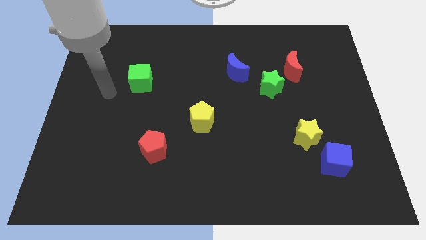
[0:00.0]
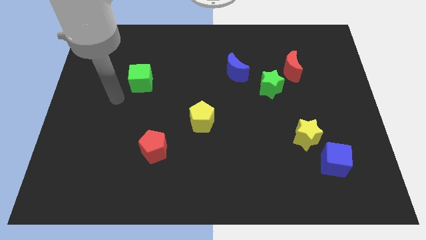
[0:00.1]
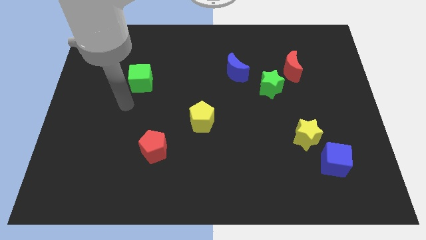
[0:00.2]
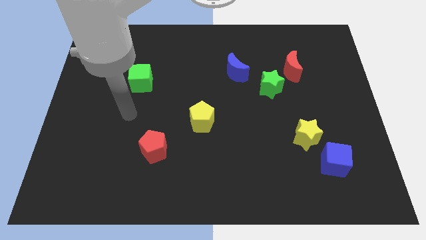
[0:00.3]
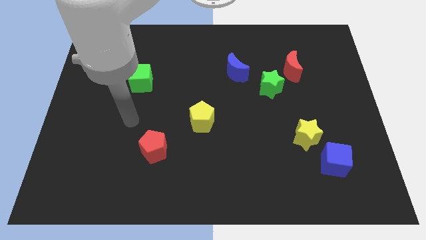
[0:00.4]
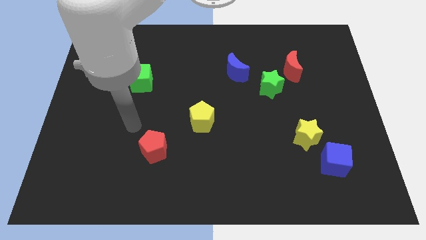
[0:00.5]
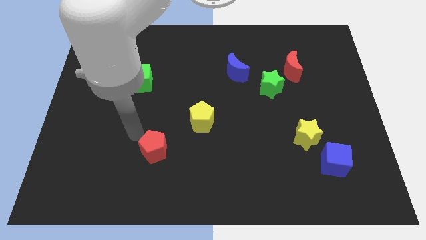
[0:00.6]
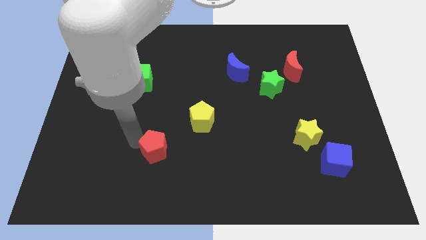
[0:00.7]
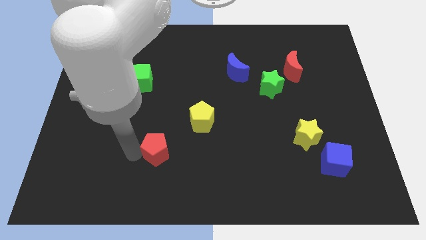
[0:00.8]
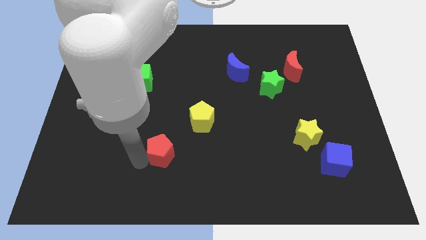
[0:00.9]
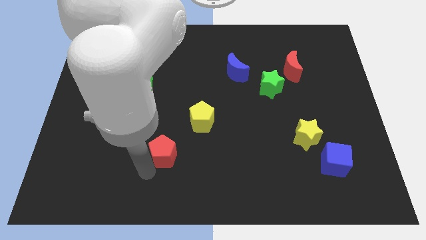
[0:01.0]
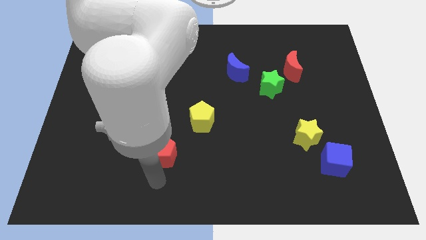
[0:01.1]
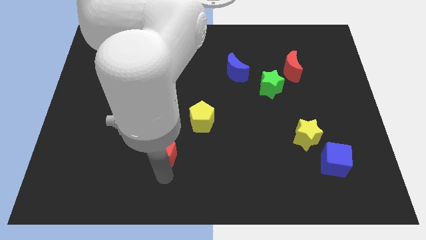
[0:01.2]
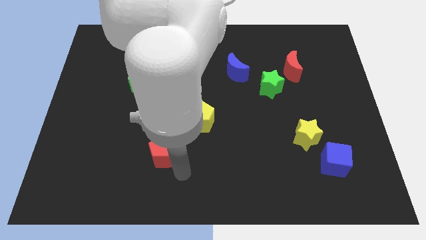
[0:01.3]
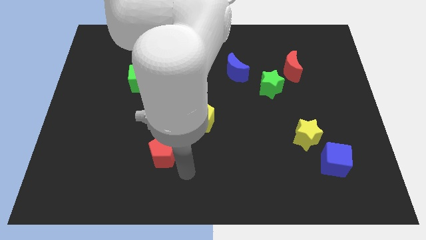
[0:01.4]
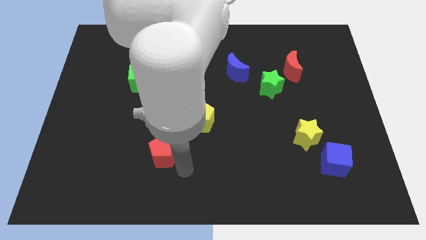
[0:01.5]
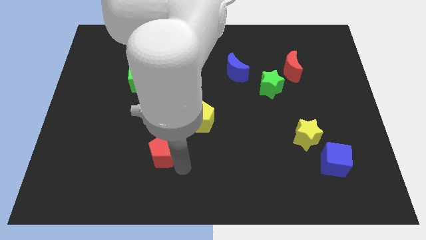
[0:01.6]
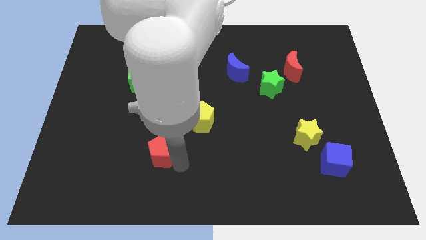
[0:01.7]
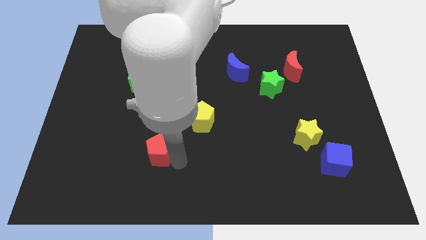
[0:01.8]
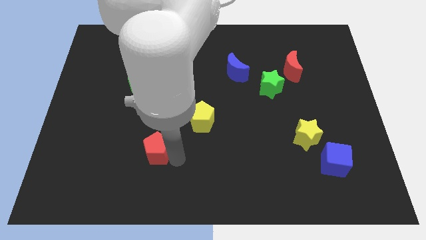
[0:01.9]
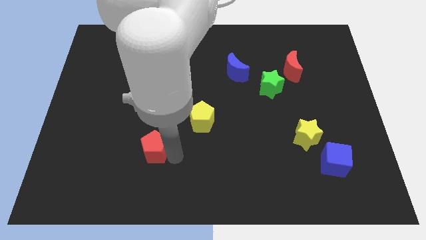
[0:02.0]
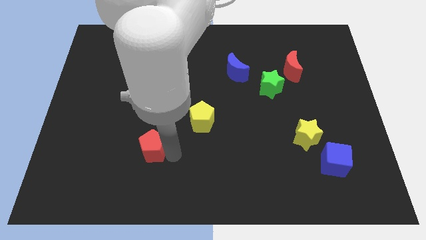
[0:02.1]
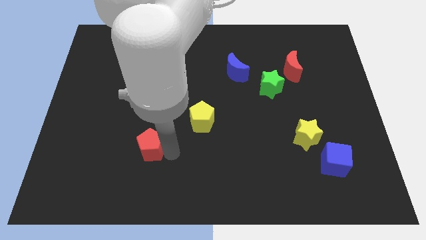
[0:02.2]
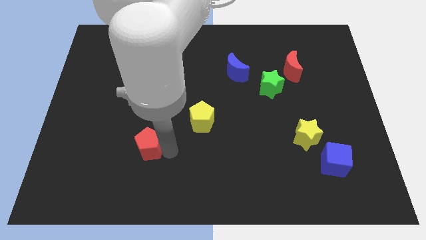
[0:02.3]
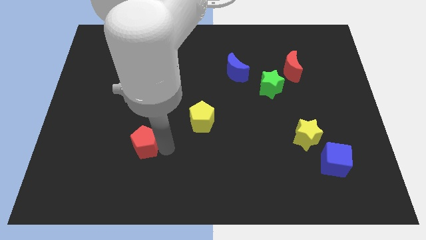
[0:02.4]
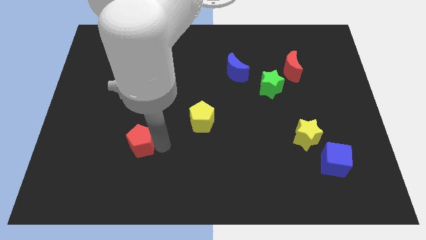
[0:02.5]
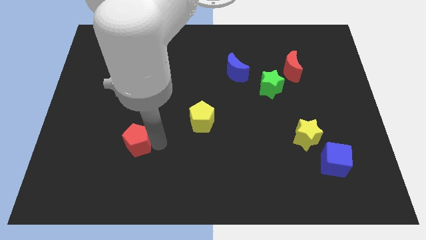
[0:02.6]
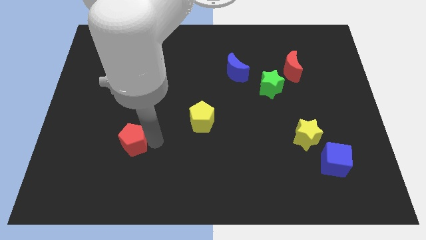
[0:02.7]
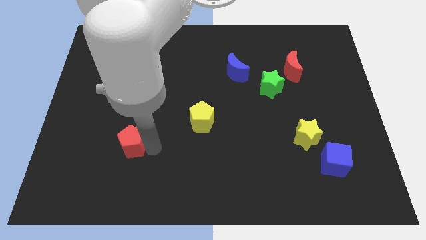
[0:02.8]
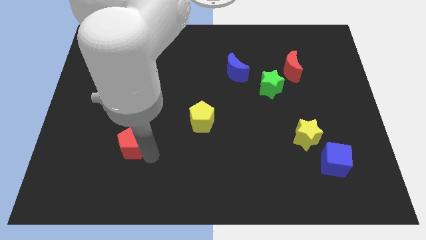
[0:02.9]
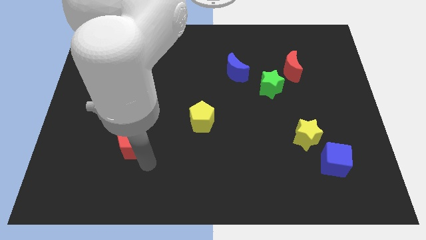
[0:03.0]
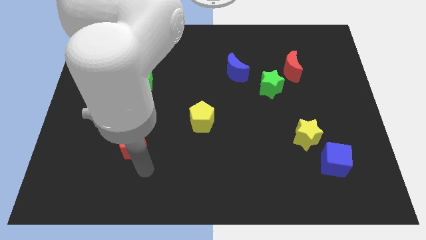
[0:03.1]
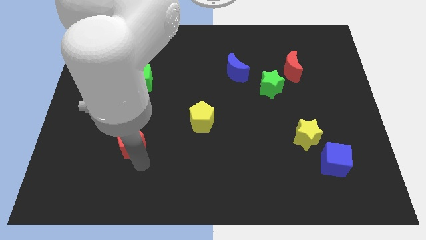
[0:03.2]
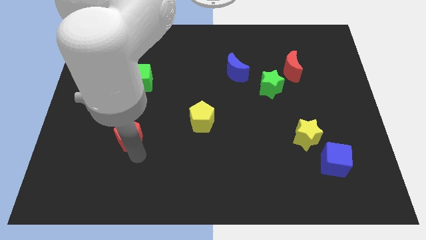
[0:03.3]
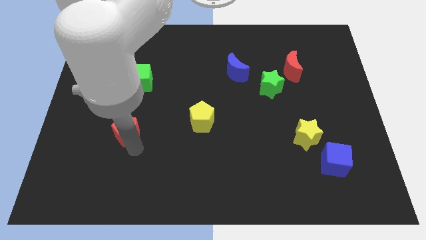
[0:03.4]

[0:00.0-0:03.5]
slightly slide the red pentagon upwards and then left

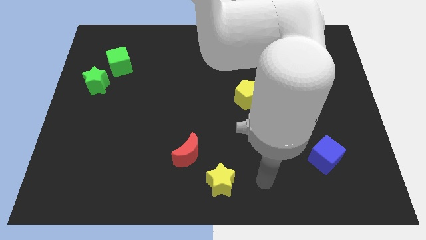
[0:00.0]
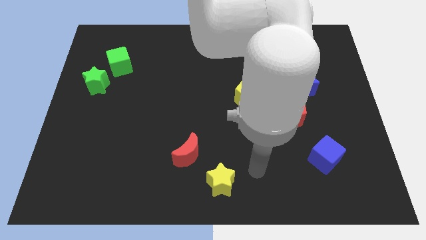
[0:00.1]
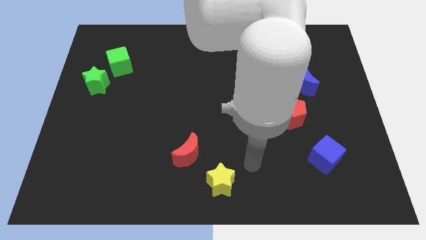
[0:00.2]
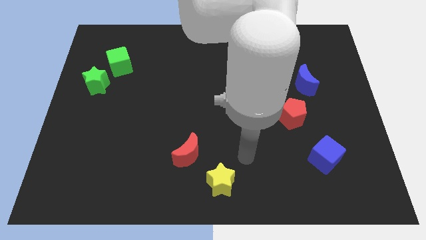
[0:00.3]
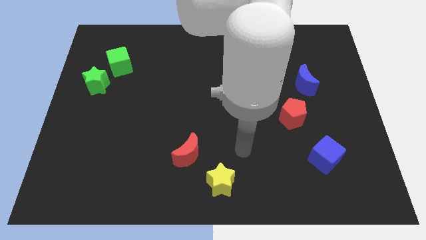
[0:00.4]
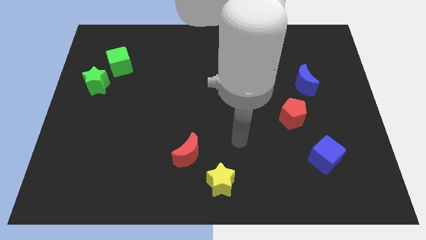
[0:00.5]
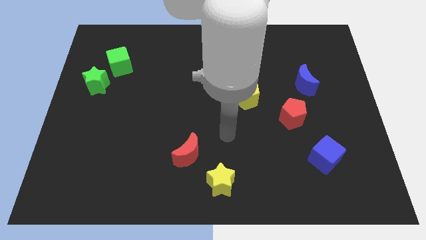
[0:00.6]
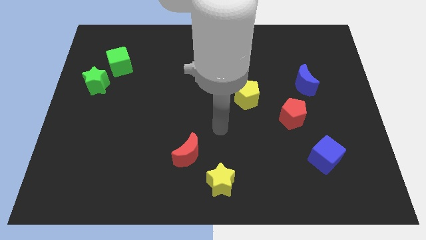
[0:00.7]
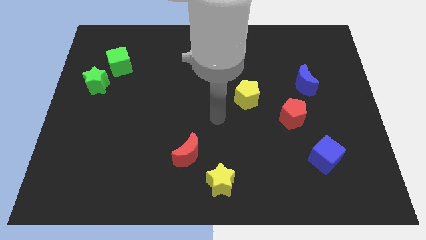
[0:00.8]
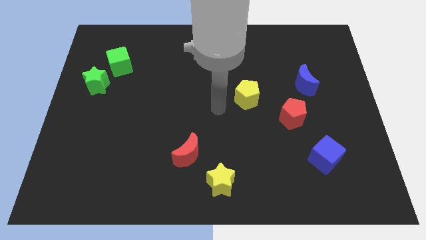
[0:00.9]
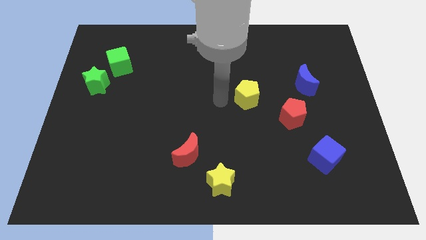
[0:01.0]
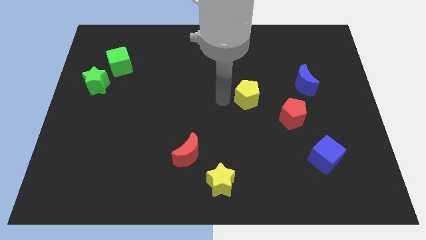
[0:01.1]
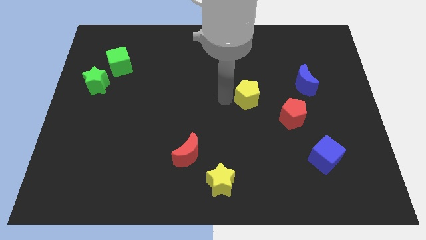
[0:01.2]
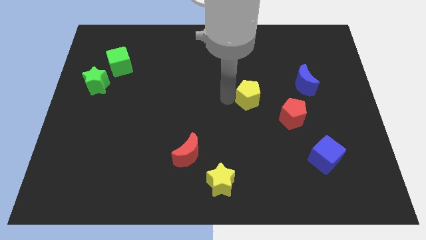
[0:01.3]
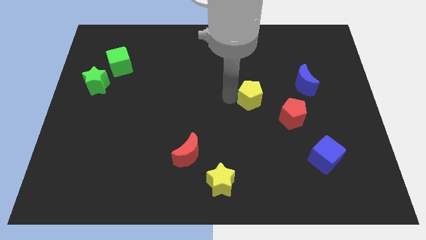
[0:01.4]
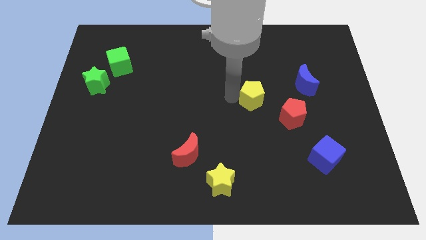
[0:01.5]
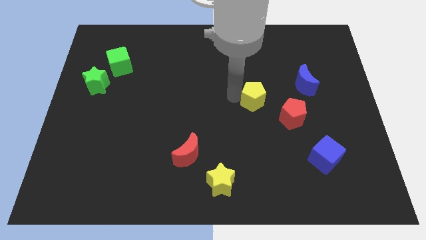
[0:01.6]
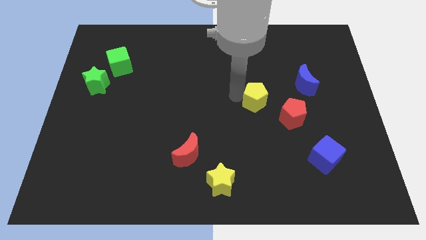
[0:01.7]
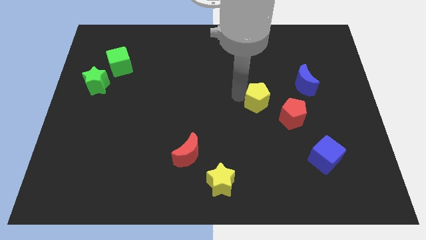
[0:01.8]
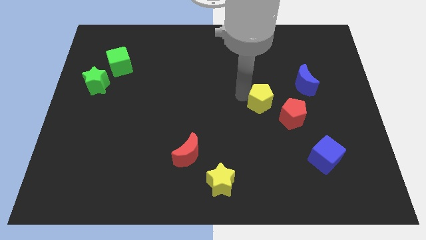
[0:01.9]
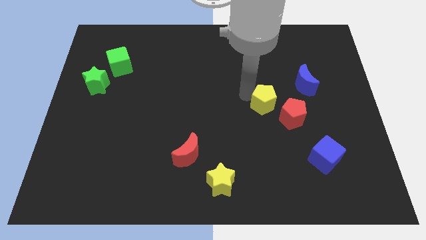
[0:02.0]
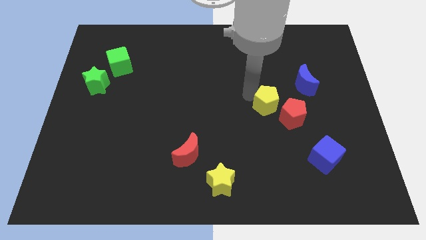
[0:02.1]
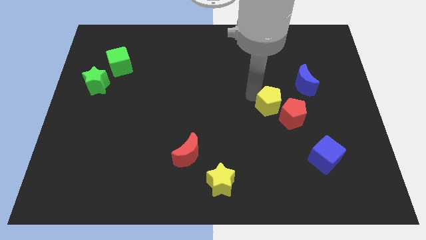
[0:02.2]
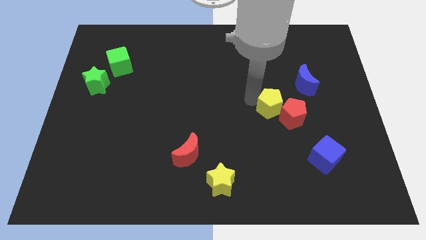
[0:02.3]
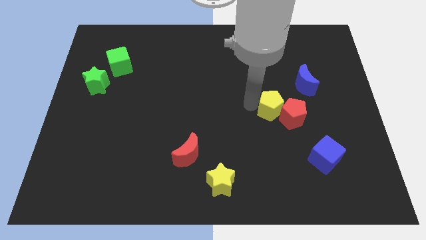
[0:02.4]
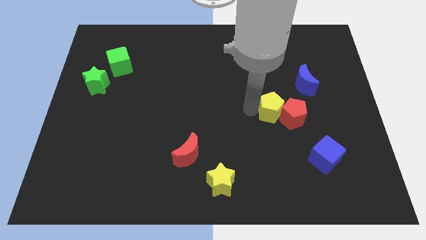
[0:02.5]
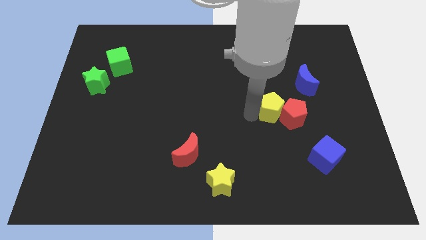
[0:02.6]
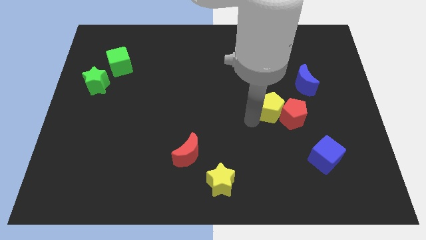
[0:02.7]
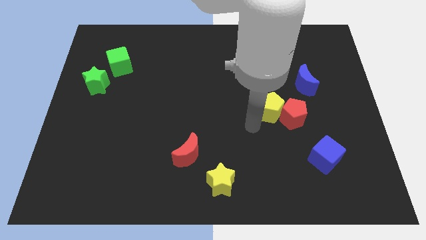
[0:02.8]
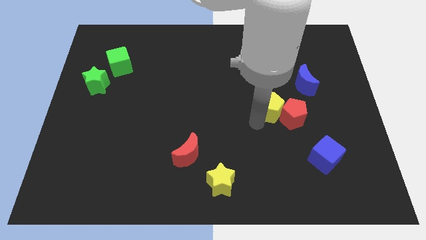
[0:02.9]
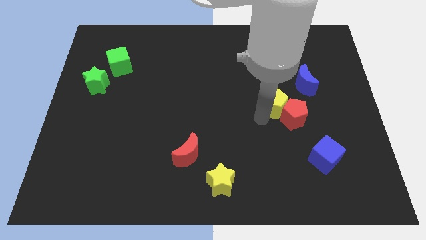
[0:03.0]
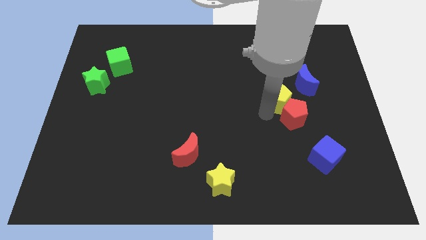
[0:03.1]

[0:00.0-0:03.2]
slightly slide the yellow pentagon right

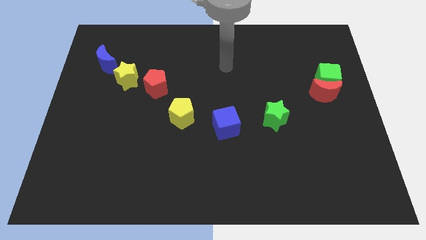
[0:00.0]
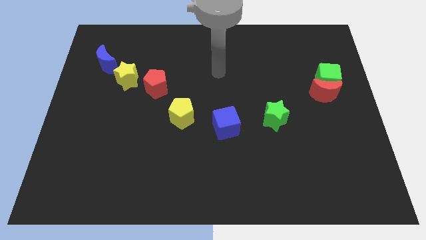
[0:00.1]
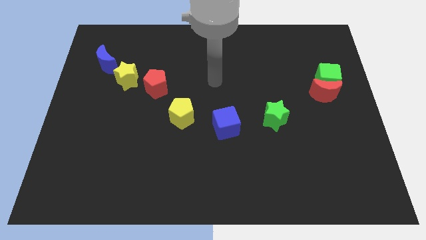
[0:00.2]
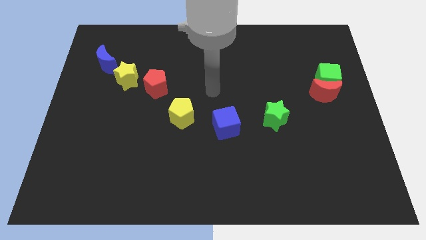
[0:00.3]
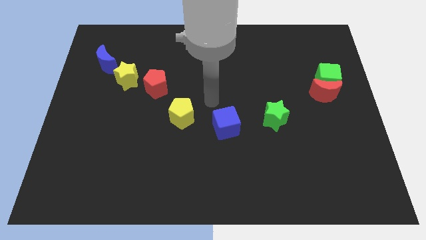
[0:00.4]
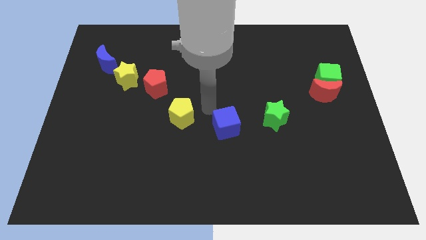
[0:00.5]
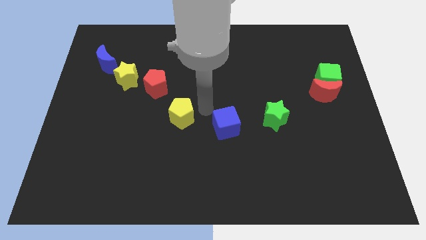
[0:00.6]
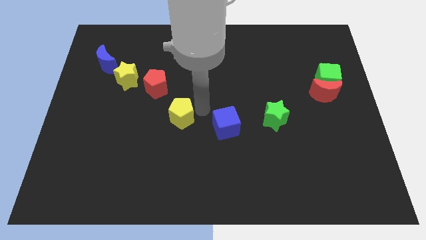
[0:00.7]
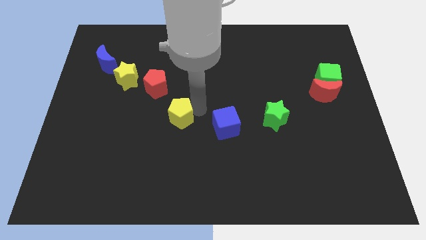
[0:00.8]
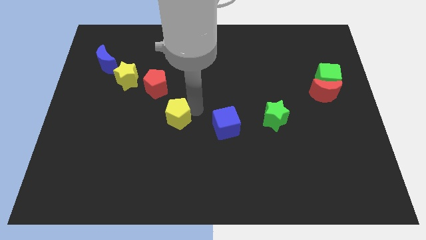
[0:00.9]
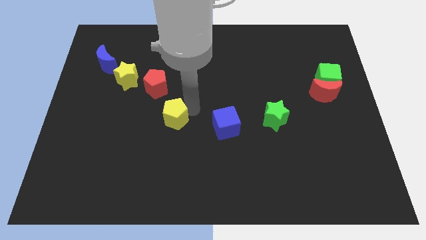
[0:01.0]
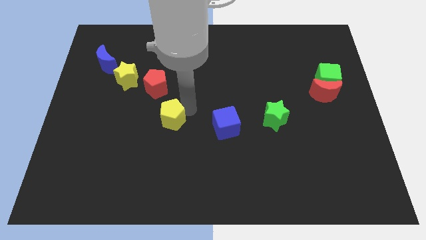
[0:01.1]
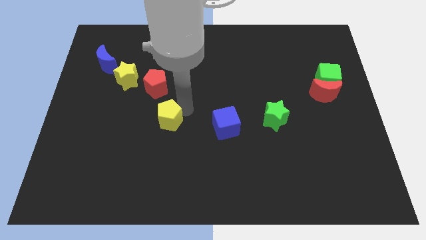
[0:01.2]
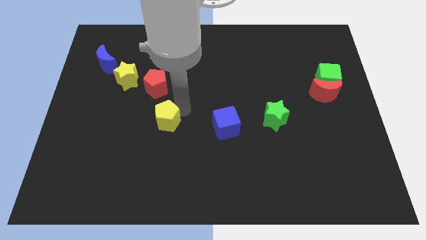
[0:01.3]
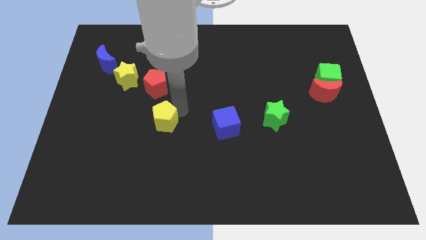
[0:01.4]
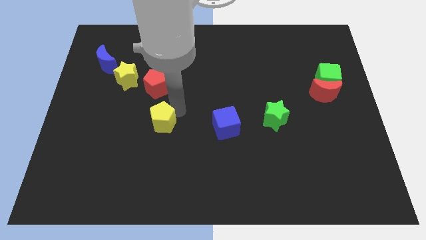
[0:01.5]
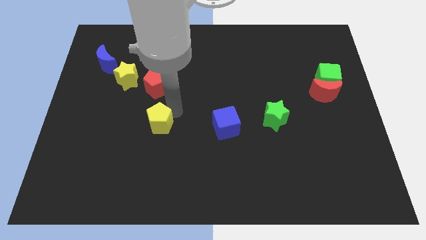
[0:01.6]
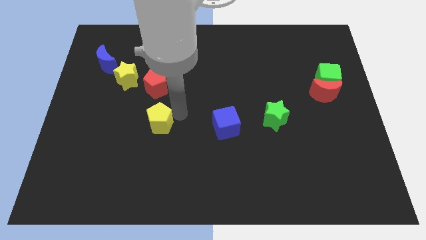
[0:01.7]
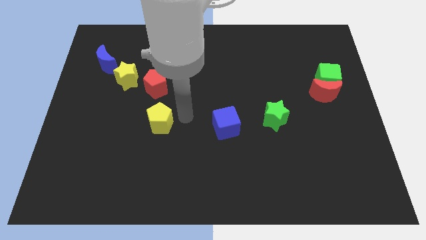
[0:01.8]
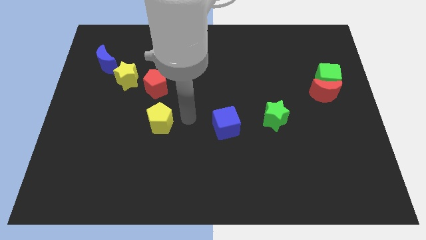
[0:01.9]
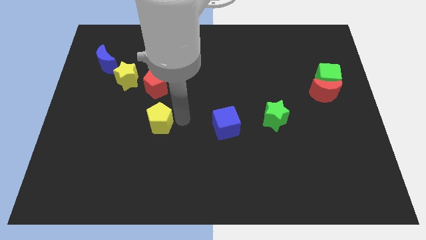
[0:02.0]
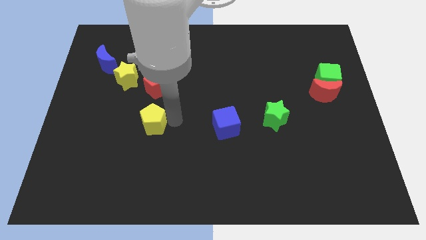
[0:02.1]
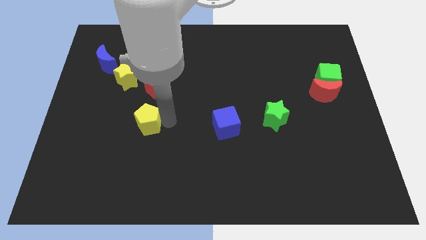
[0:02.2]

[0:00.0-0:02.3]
slide the yellow pentagon to the left slightly
